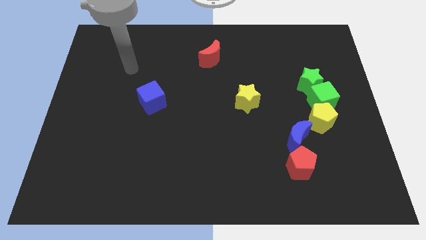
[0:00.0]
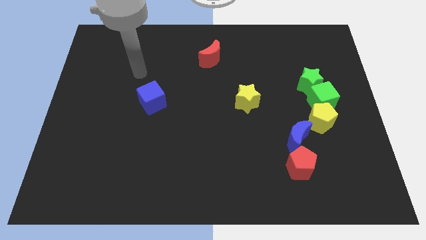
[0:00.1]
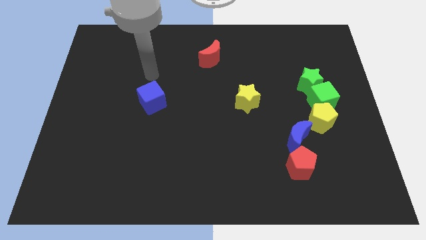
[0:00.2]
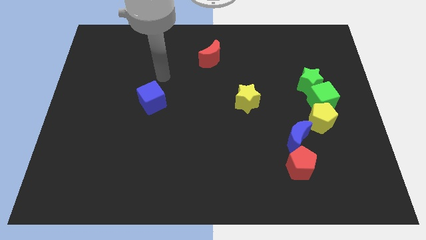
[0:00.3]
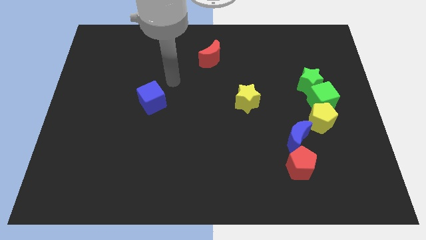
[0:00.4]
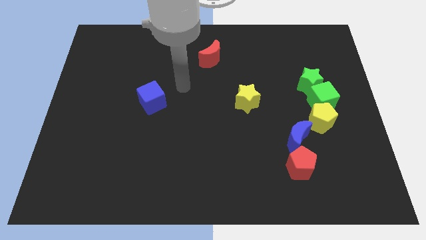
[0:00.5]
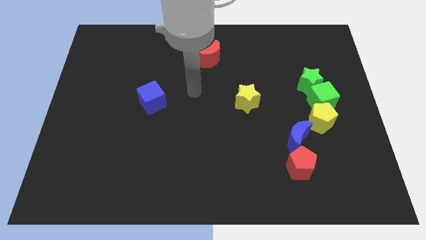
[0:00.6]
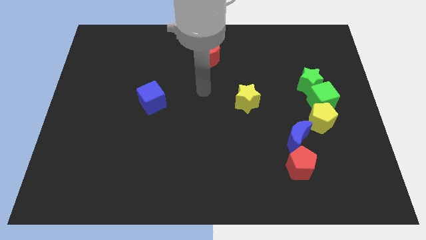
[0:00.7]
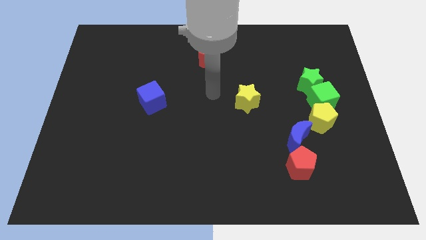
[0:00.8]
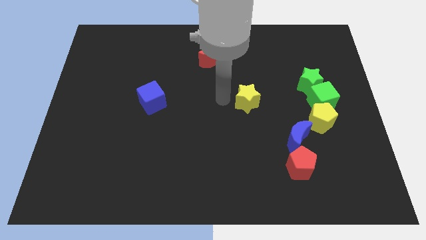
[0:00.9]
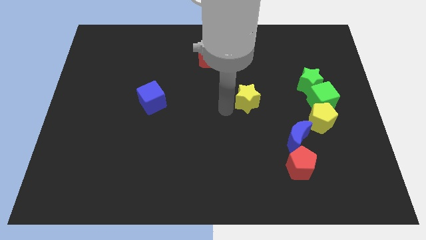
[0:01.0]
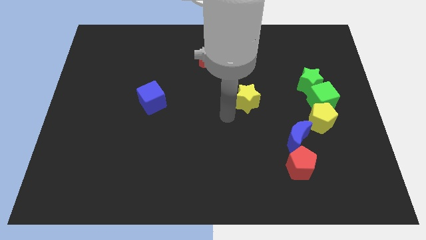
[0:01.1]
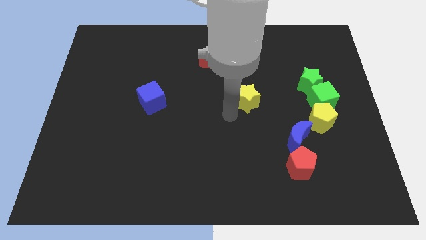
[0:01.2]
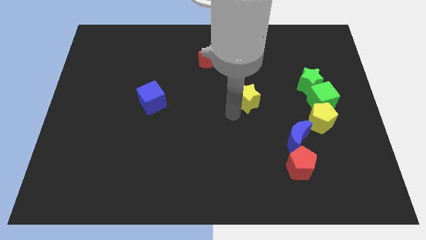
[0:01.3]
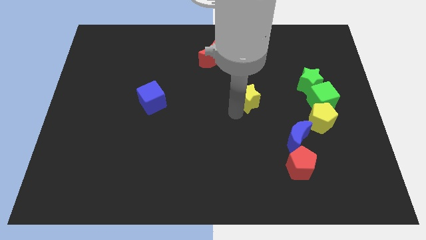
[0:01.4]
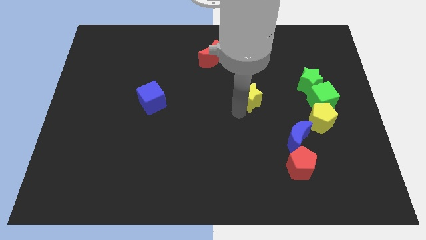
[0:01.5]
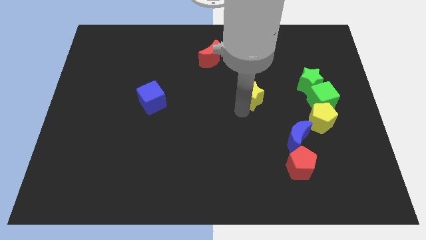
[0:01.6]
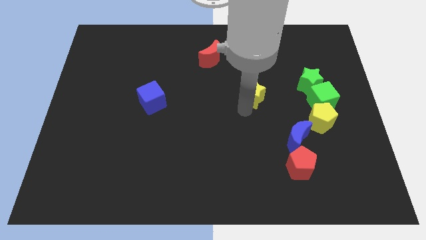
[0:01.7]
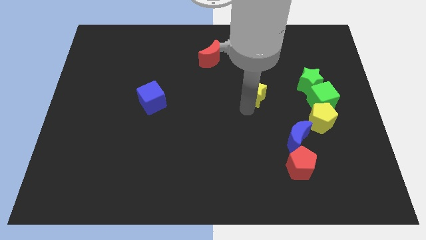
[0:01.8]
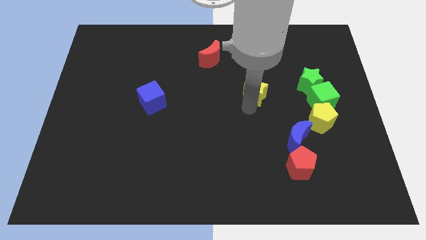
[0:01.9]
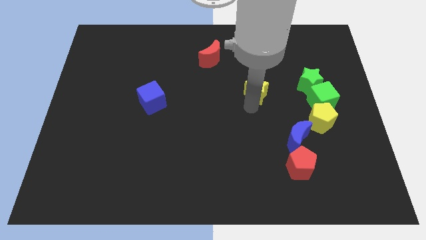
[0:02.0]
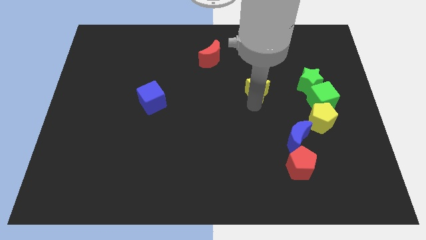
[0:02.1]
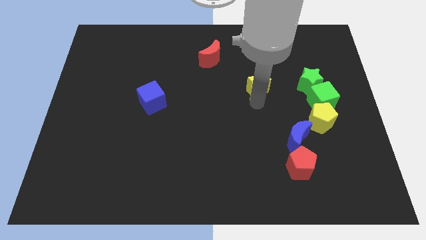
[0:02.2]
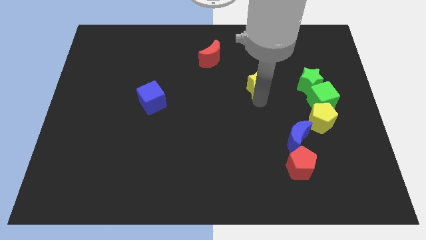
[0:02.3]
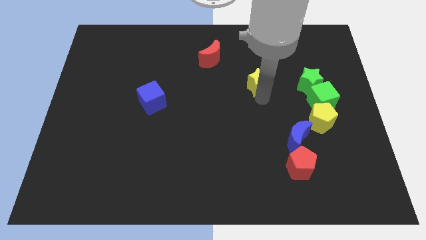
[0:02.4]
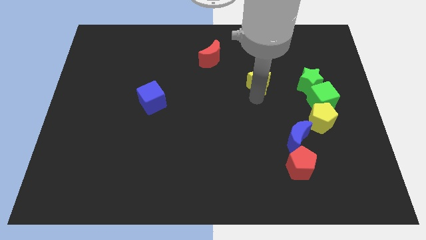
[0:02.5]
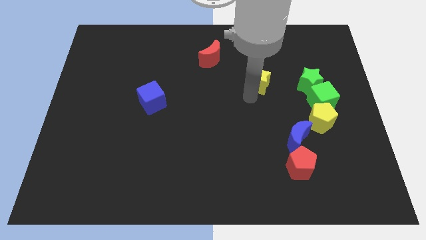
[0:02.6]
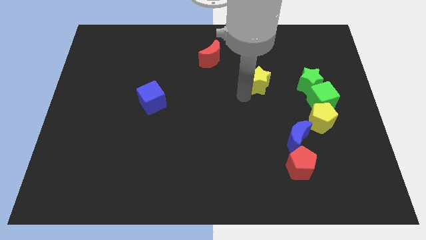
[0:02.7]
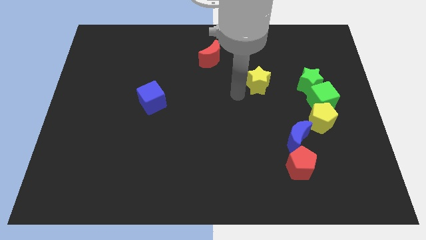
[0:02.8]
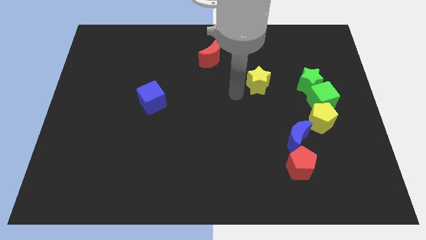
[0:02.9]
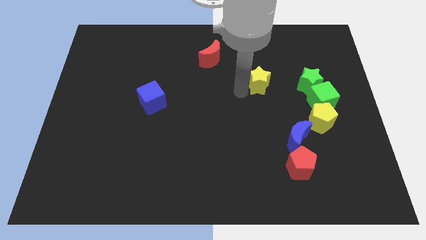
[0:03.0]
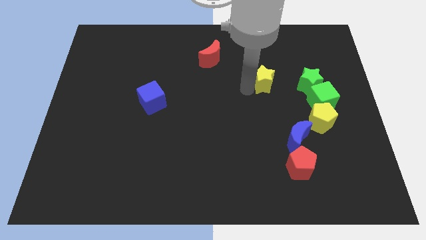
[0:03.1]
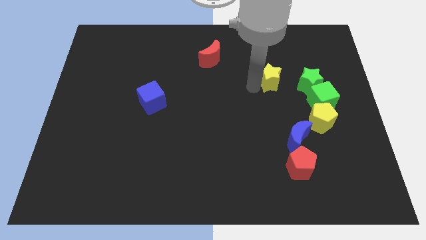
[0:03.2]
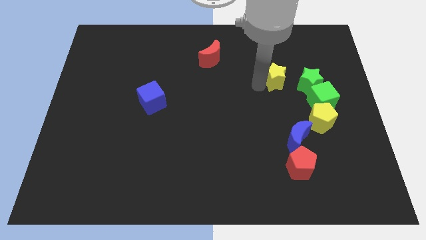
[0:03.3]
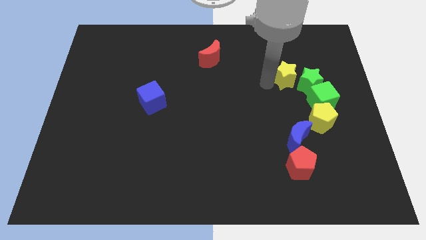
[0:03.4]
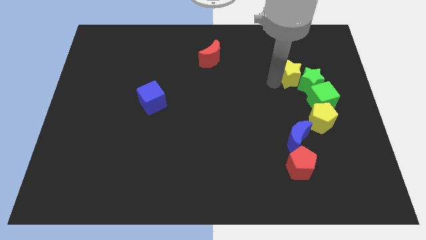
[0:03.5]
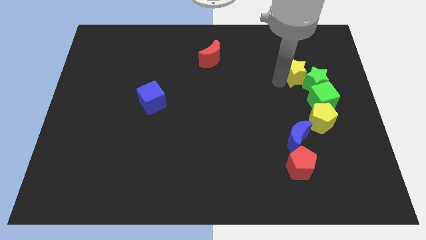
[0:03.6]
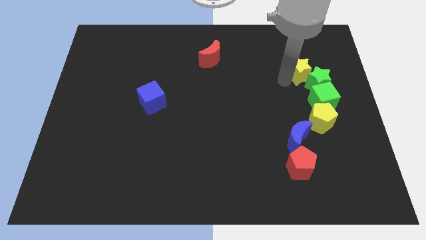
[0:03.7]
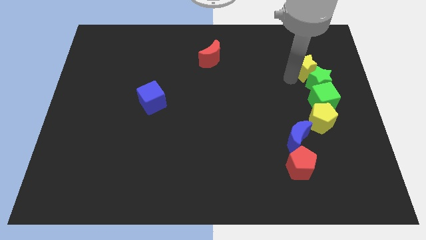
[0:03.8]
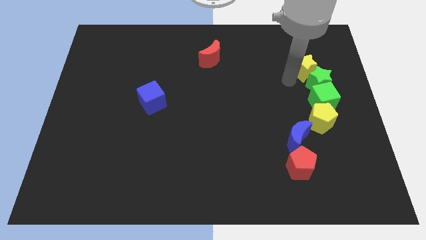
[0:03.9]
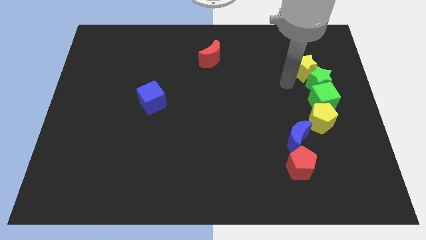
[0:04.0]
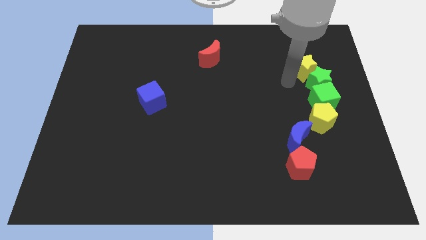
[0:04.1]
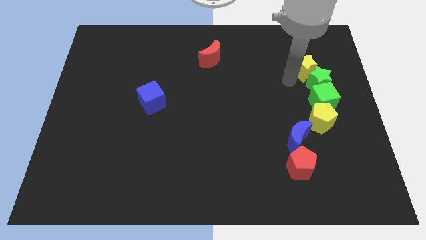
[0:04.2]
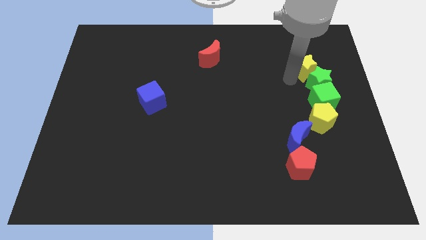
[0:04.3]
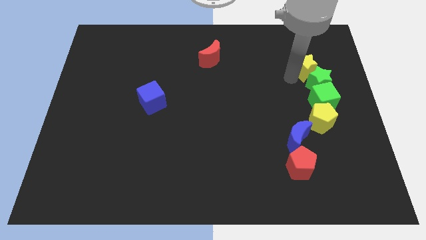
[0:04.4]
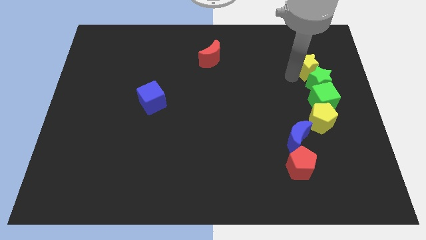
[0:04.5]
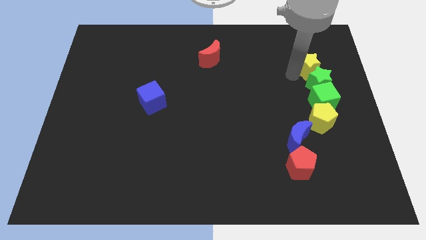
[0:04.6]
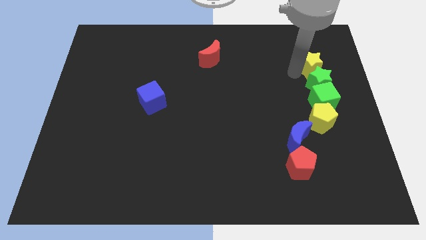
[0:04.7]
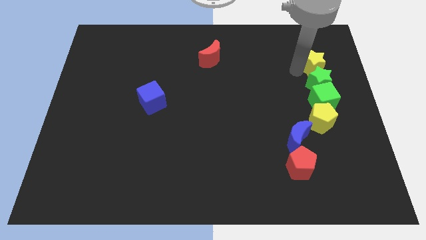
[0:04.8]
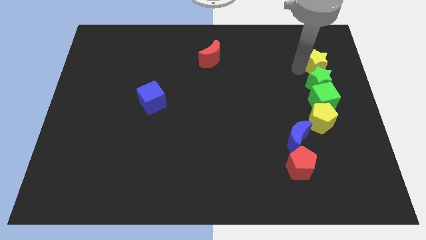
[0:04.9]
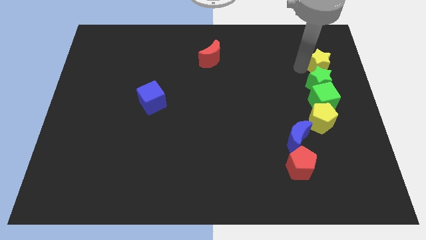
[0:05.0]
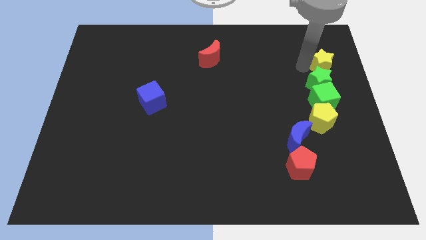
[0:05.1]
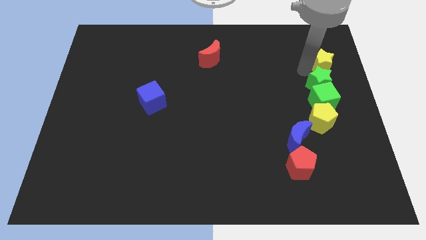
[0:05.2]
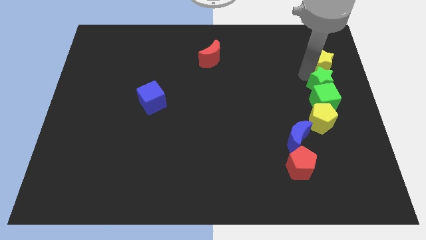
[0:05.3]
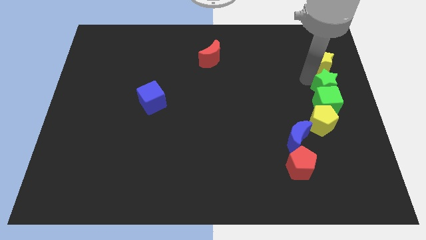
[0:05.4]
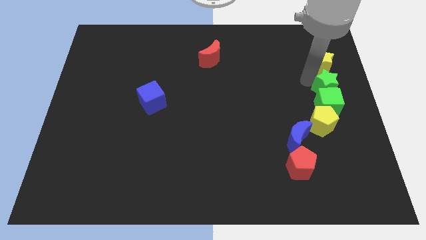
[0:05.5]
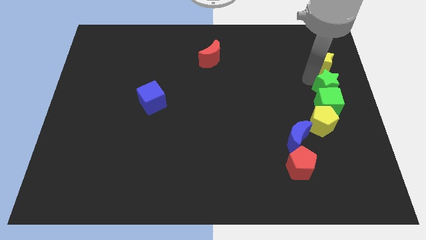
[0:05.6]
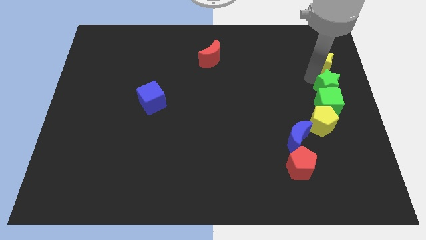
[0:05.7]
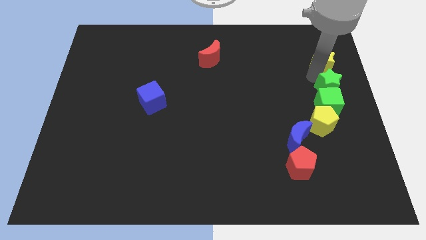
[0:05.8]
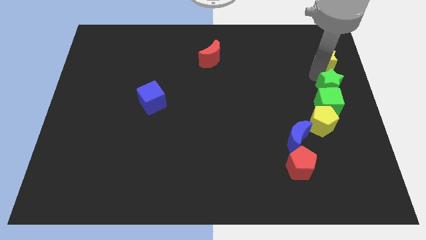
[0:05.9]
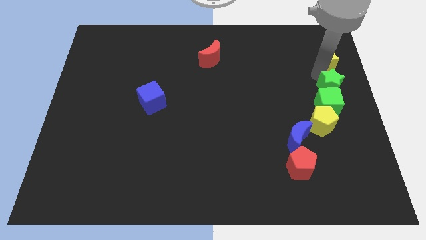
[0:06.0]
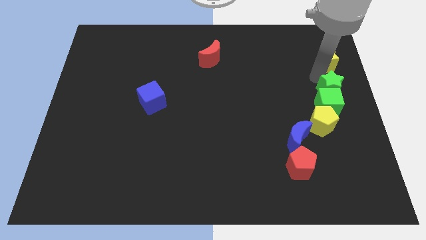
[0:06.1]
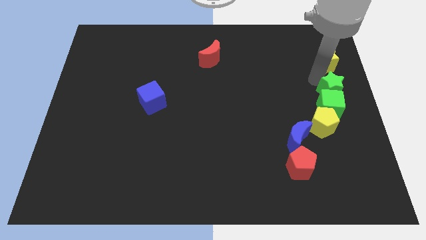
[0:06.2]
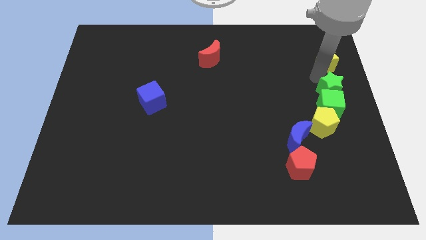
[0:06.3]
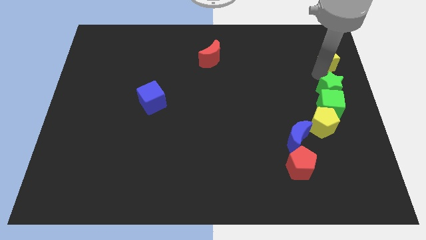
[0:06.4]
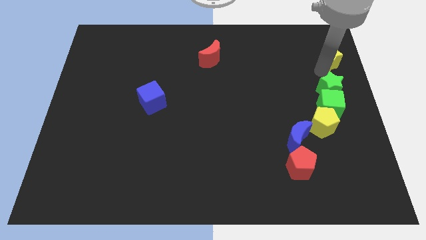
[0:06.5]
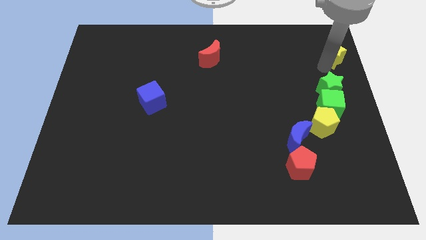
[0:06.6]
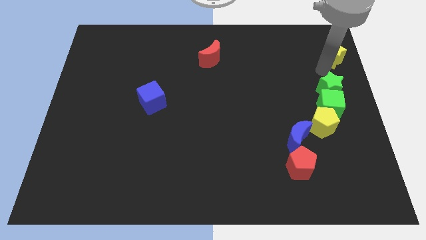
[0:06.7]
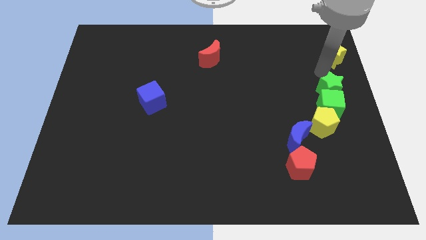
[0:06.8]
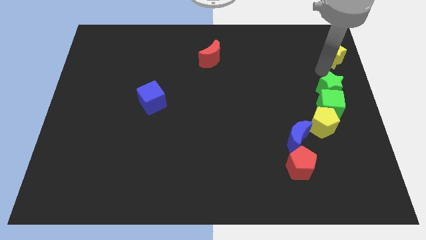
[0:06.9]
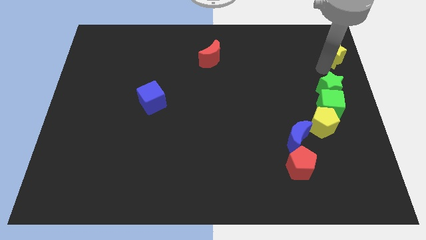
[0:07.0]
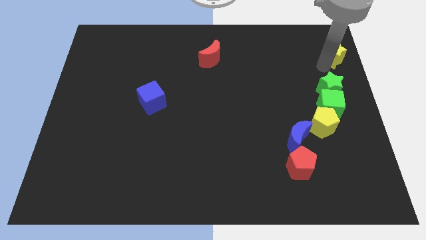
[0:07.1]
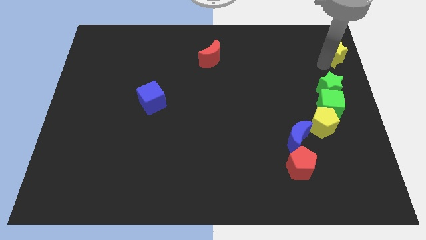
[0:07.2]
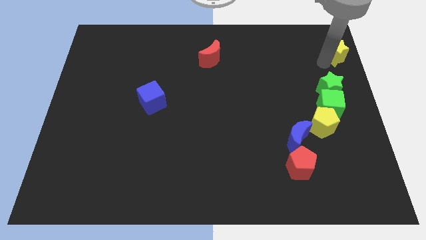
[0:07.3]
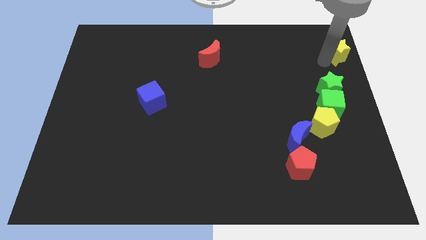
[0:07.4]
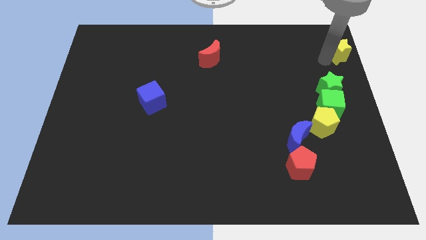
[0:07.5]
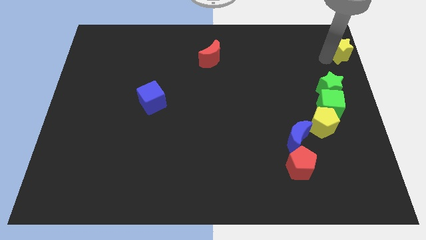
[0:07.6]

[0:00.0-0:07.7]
move the yellow star to the top right corner

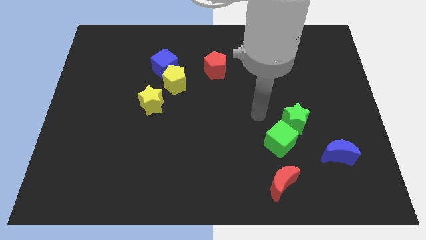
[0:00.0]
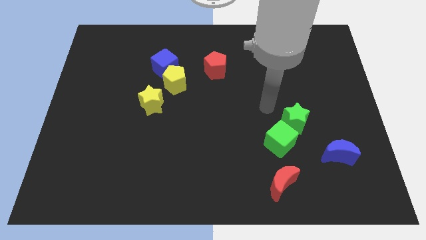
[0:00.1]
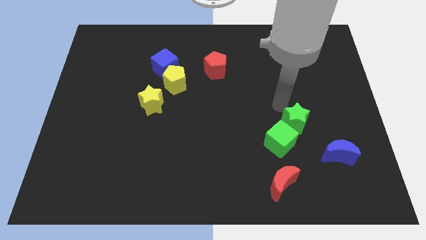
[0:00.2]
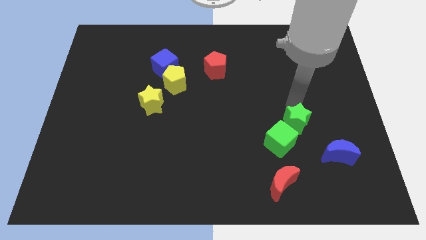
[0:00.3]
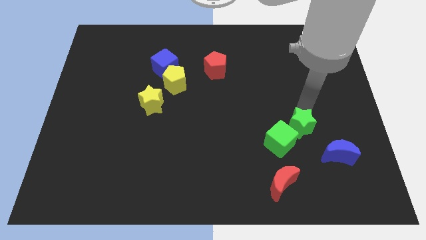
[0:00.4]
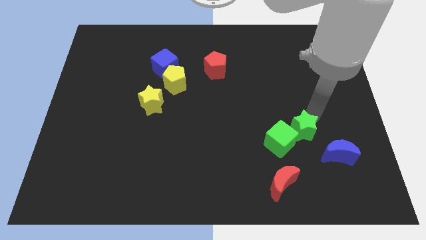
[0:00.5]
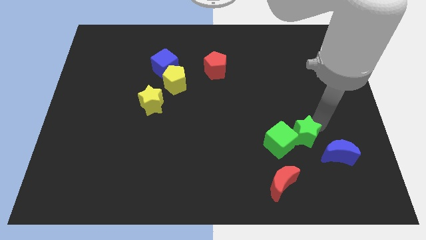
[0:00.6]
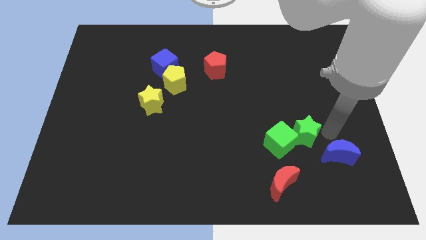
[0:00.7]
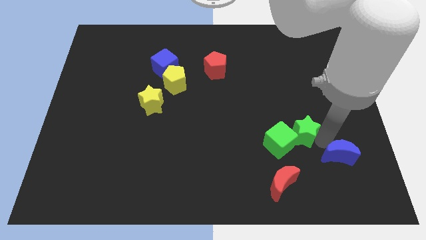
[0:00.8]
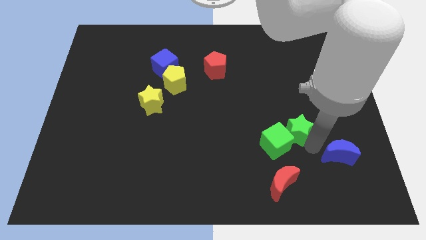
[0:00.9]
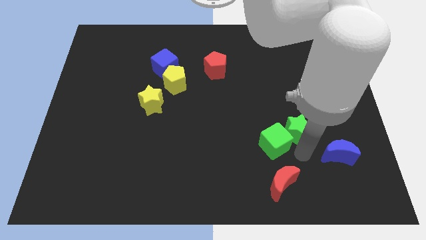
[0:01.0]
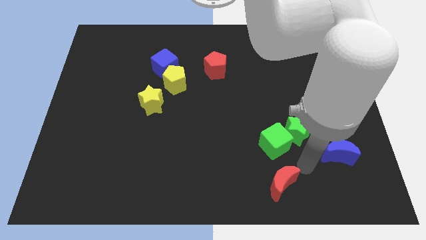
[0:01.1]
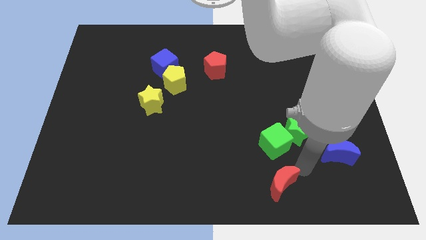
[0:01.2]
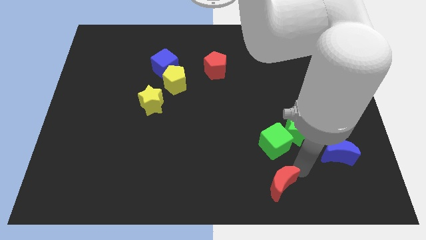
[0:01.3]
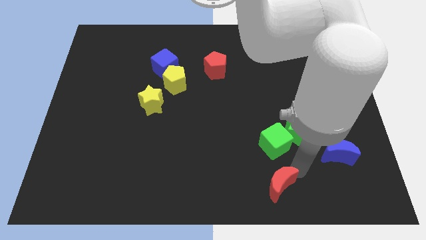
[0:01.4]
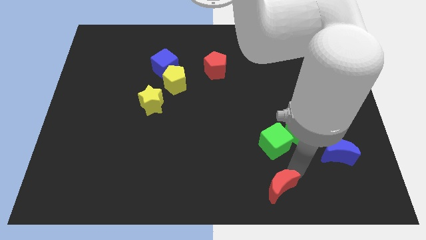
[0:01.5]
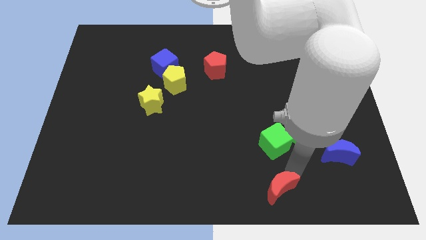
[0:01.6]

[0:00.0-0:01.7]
move the red moon to the bottom
